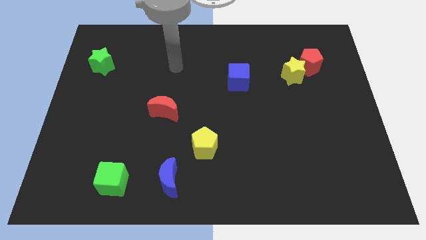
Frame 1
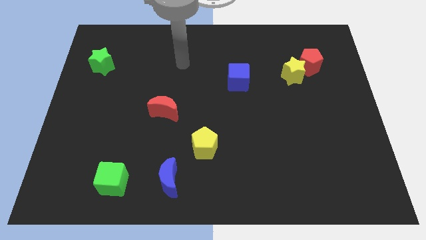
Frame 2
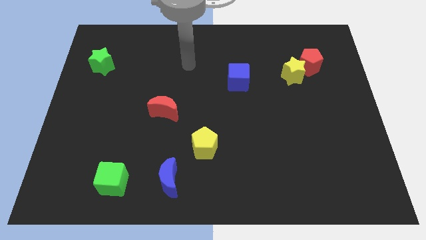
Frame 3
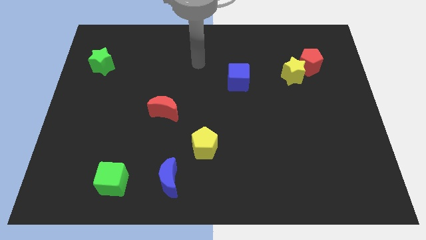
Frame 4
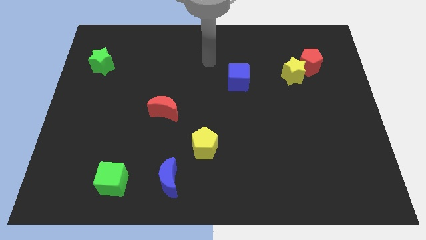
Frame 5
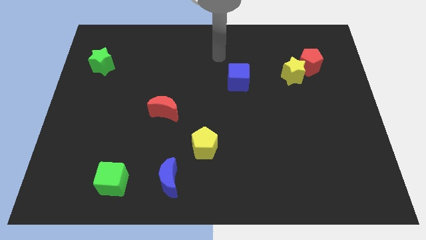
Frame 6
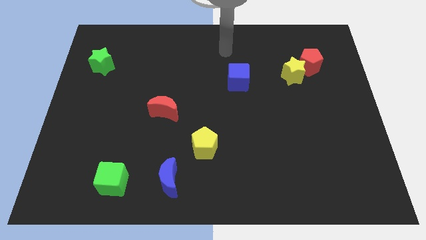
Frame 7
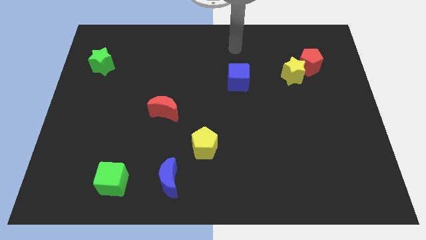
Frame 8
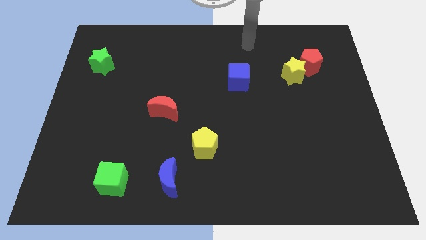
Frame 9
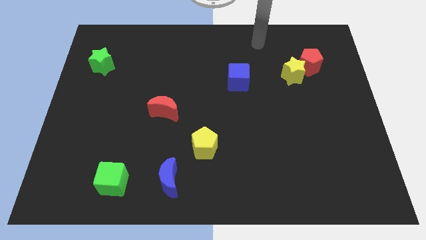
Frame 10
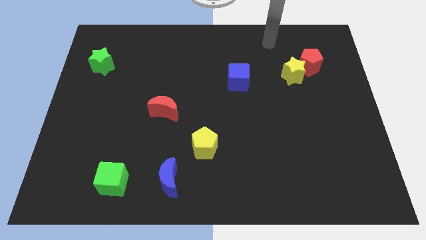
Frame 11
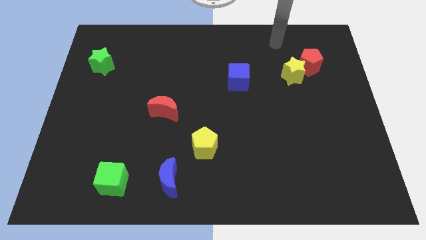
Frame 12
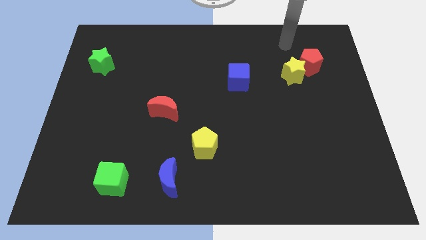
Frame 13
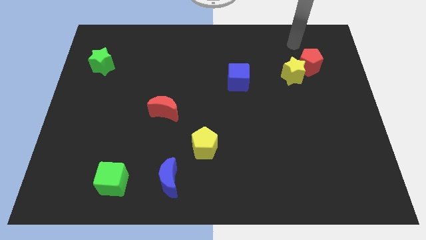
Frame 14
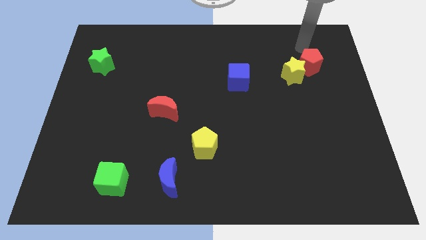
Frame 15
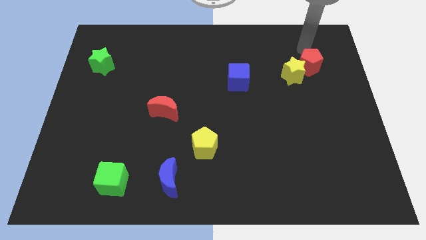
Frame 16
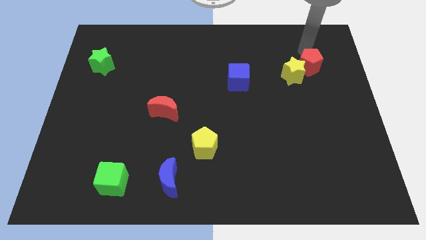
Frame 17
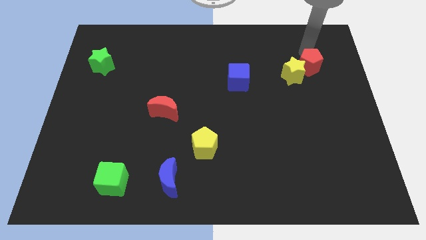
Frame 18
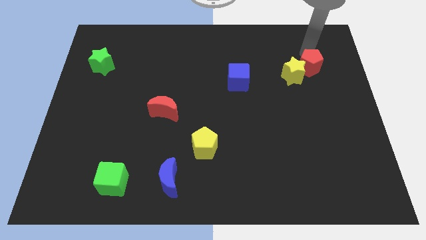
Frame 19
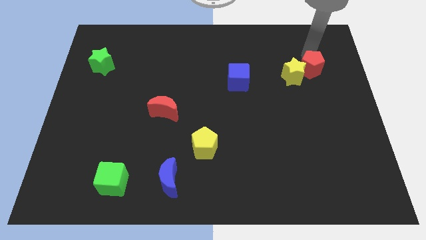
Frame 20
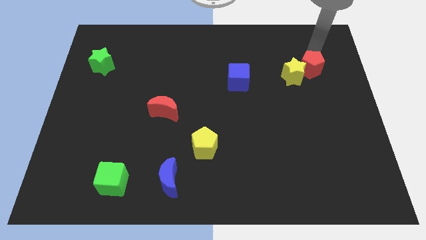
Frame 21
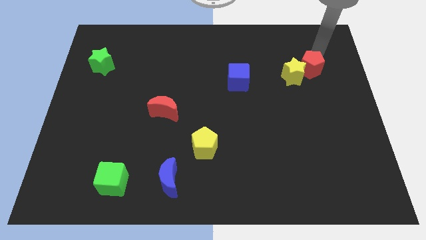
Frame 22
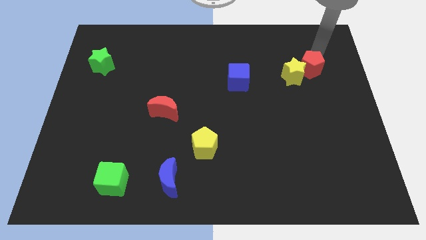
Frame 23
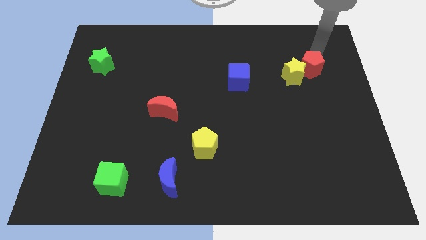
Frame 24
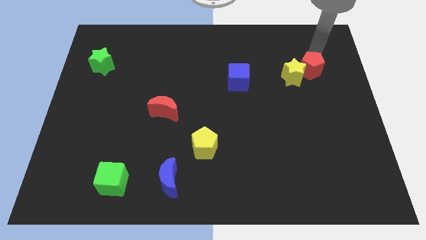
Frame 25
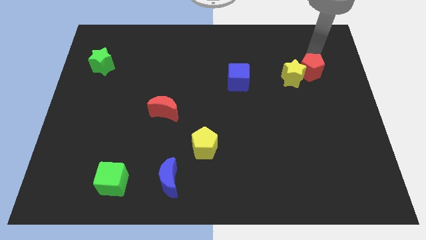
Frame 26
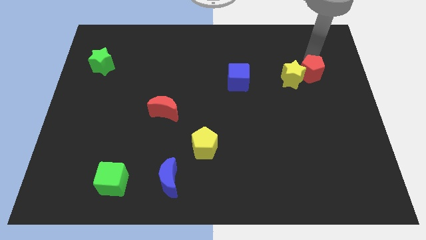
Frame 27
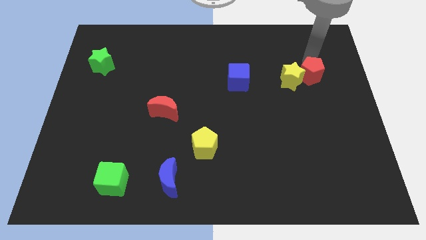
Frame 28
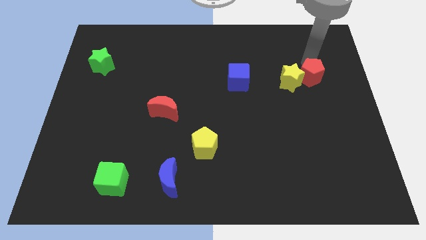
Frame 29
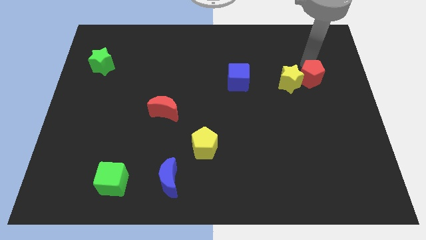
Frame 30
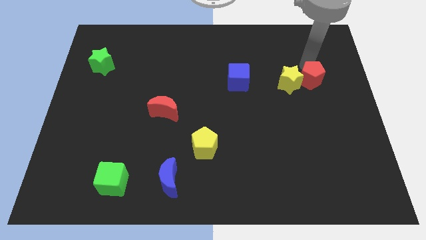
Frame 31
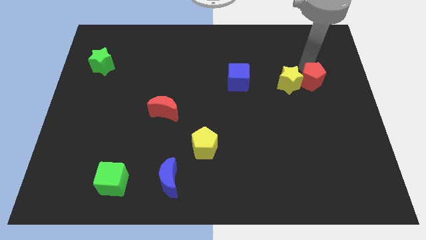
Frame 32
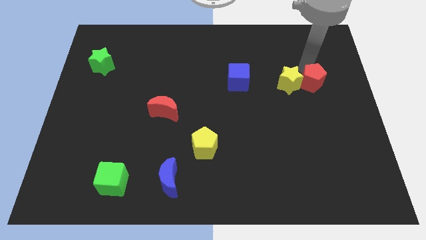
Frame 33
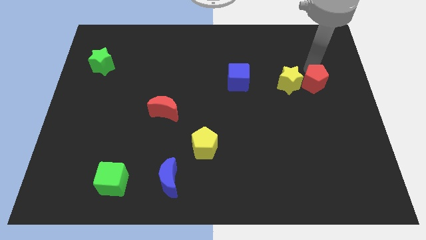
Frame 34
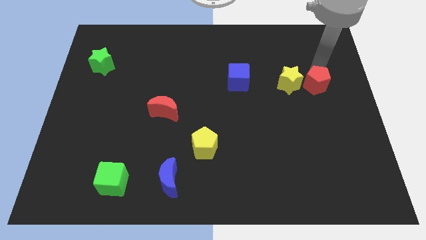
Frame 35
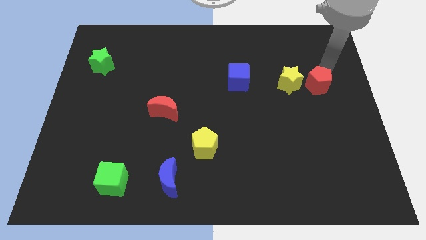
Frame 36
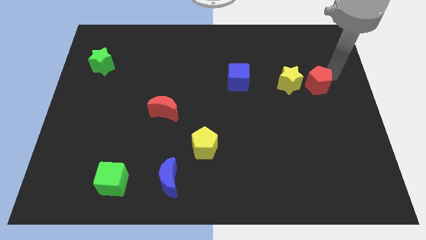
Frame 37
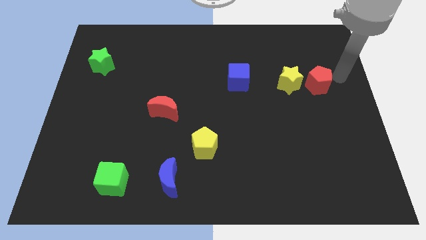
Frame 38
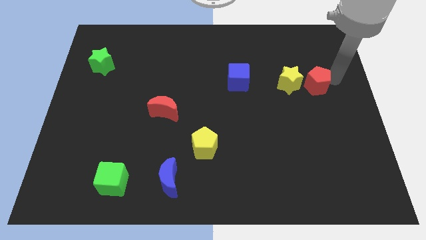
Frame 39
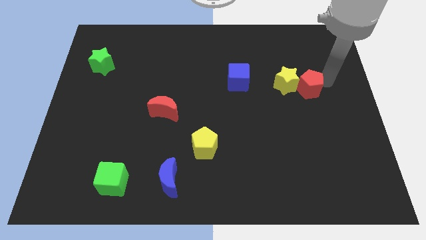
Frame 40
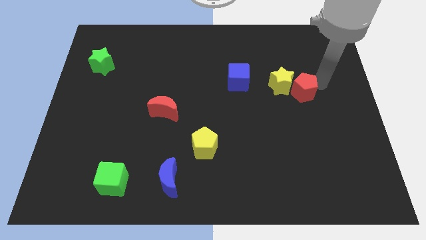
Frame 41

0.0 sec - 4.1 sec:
push the red pentagon a little down and then to the left

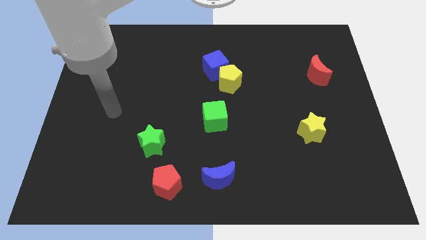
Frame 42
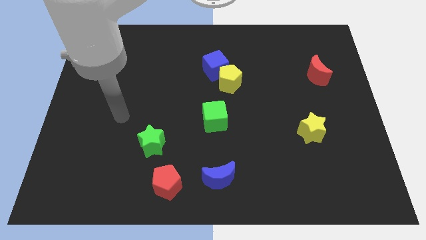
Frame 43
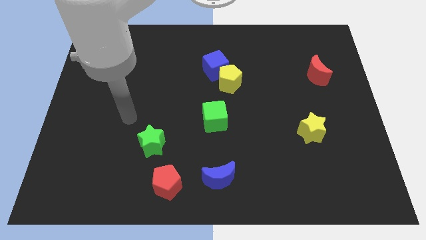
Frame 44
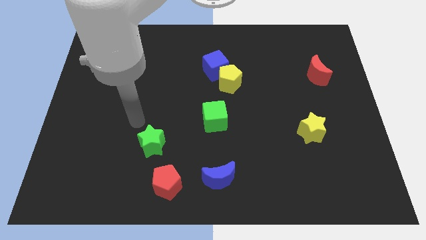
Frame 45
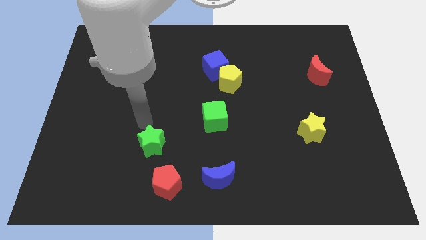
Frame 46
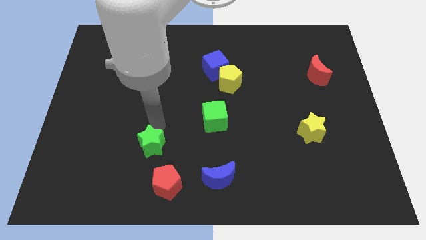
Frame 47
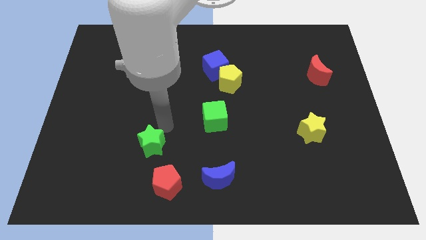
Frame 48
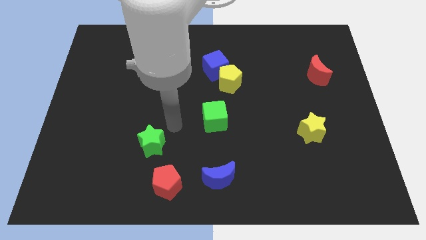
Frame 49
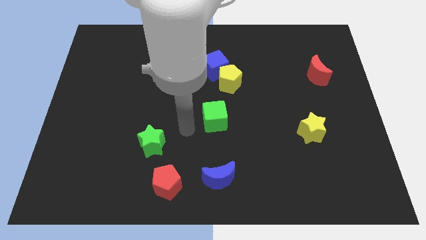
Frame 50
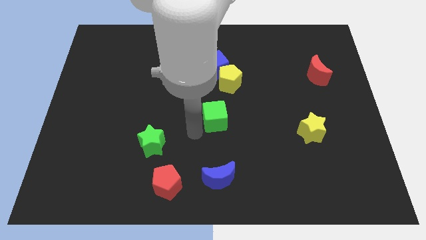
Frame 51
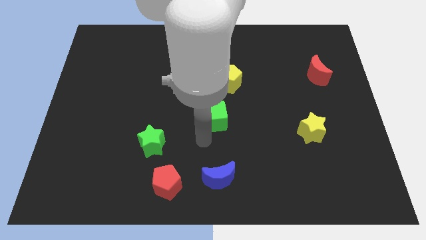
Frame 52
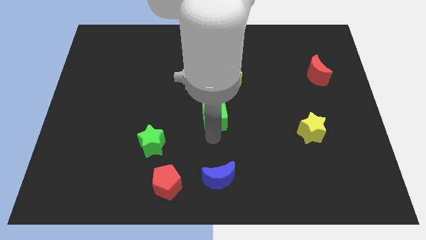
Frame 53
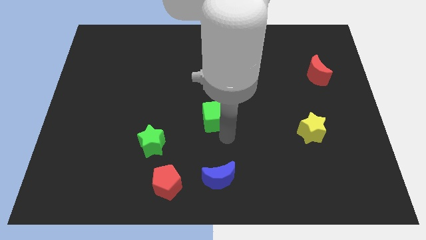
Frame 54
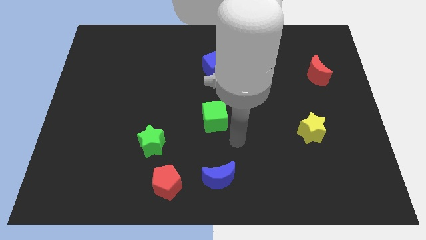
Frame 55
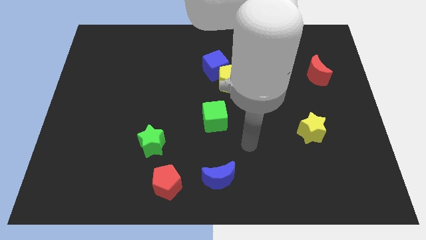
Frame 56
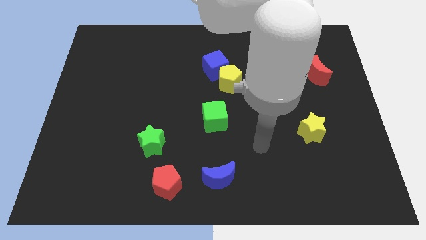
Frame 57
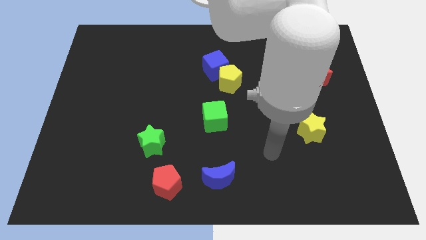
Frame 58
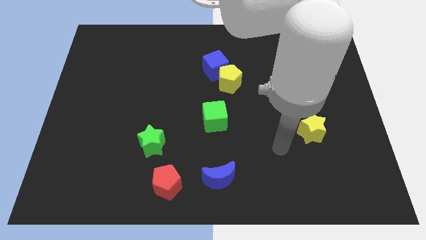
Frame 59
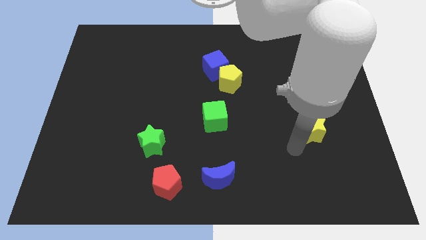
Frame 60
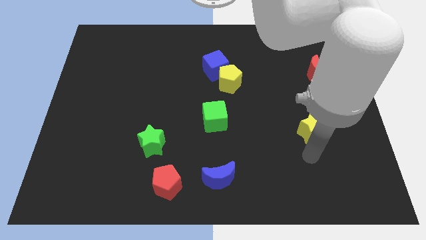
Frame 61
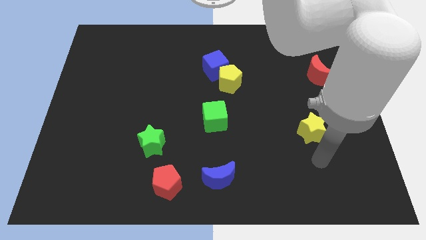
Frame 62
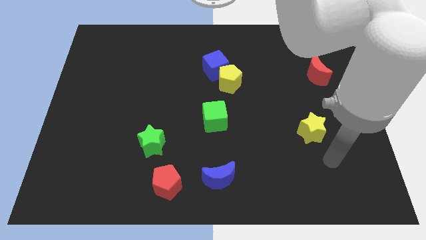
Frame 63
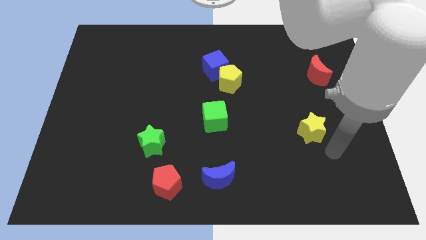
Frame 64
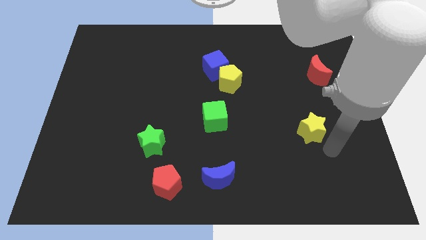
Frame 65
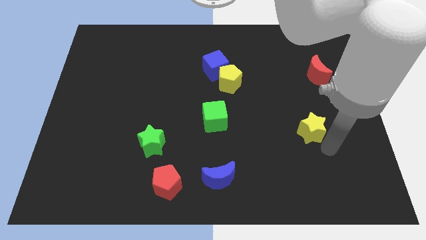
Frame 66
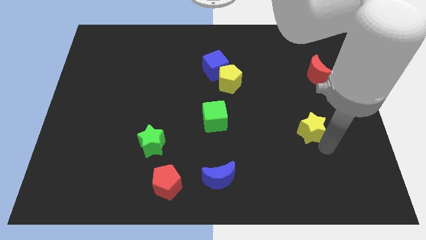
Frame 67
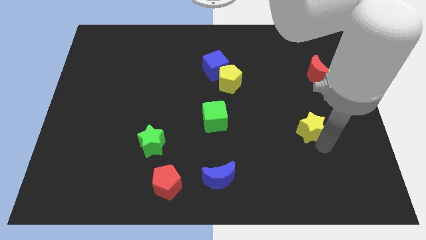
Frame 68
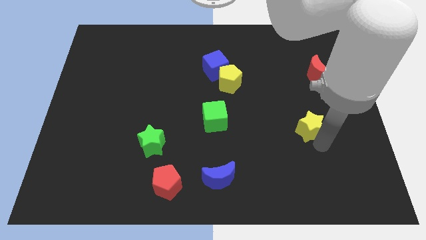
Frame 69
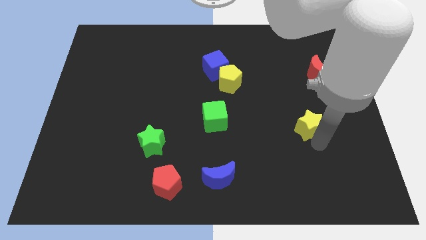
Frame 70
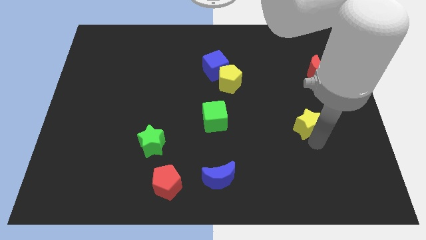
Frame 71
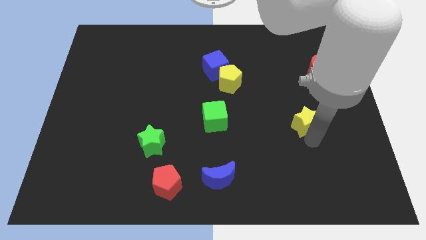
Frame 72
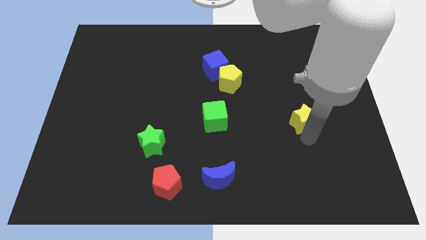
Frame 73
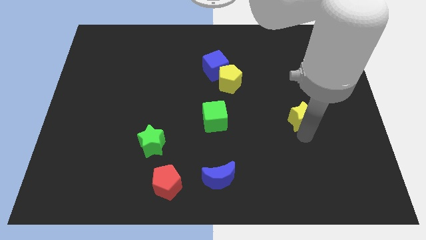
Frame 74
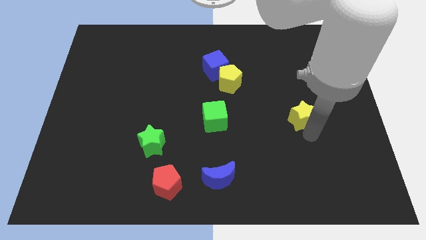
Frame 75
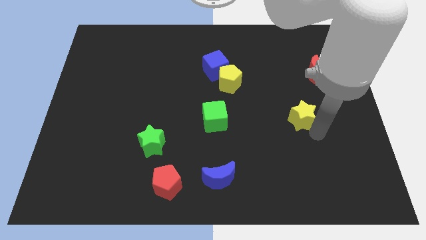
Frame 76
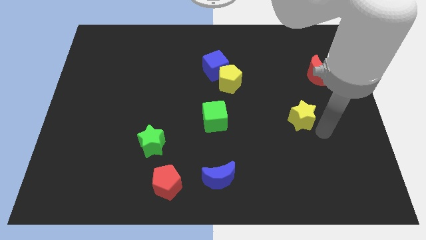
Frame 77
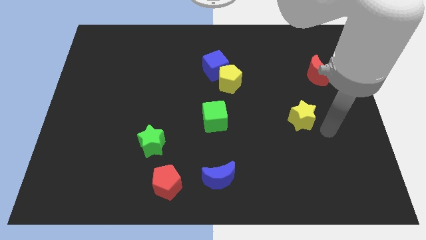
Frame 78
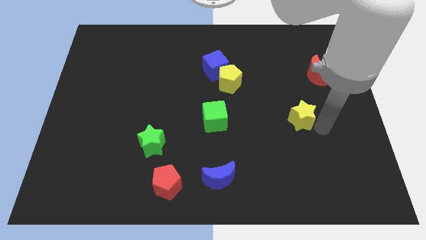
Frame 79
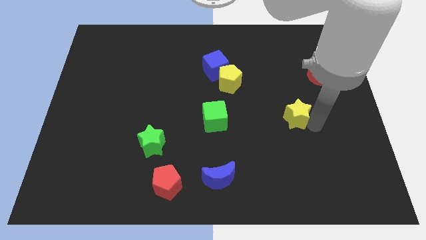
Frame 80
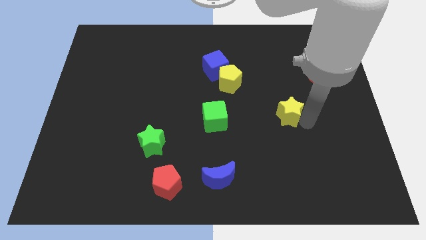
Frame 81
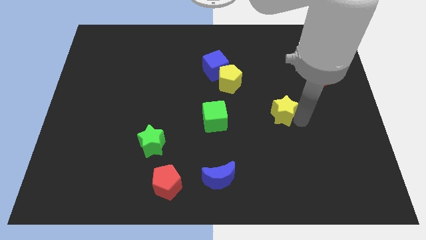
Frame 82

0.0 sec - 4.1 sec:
move the yellow star a little bit upwards and left diagonally

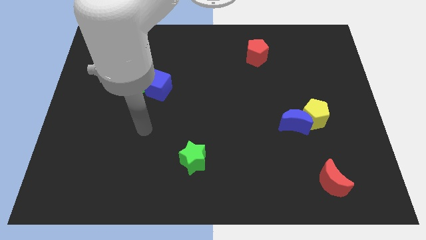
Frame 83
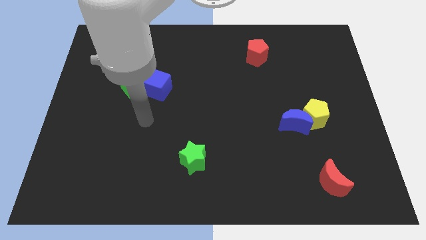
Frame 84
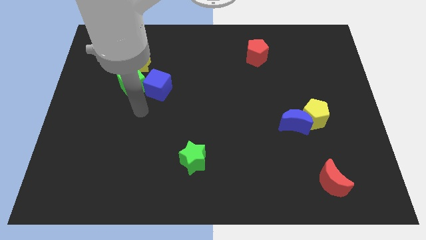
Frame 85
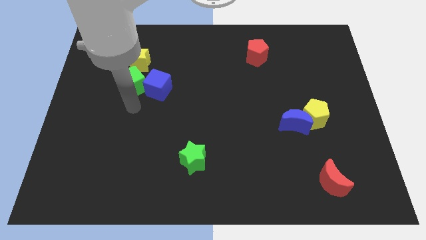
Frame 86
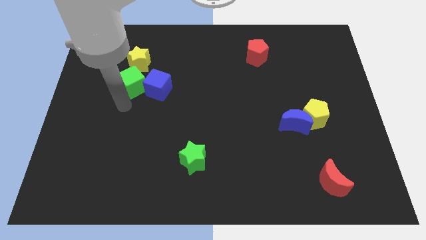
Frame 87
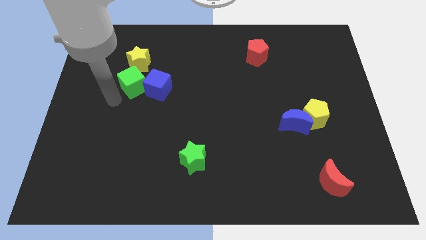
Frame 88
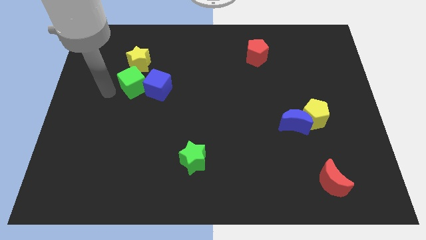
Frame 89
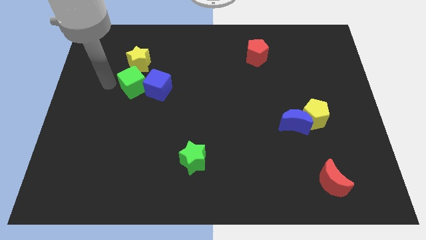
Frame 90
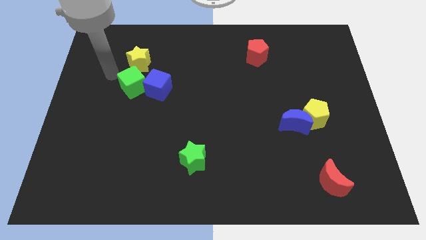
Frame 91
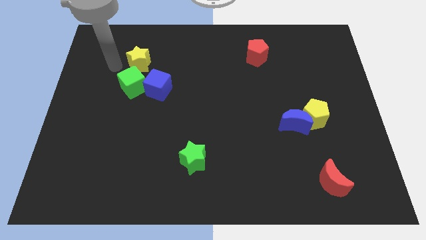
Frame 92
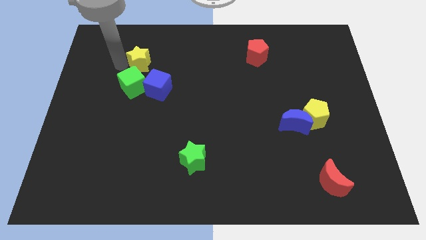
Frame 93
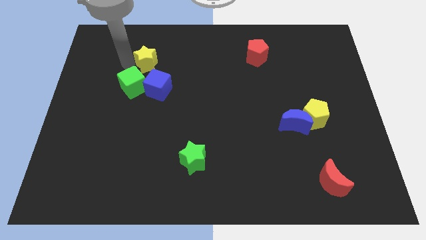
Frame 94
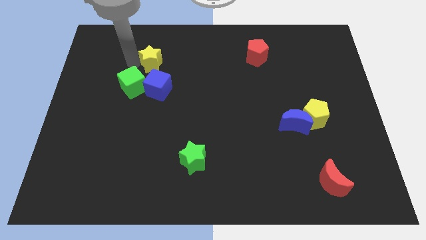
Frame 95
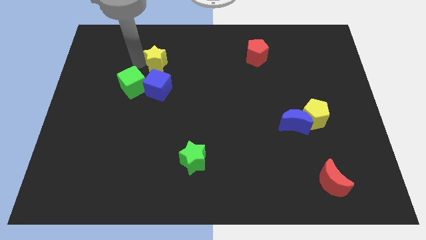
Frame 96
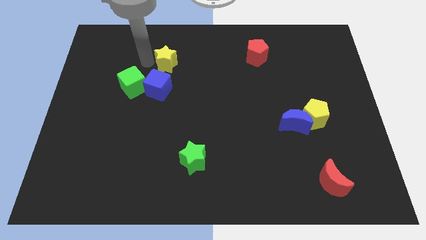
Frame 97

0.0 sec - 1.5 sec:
push the yellow star right slightly
